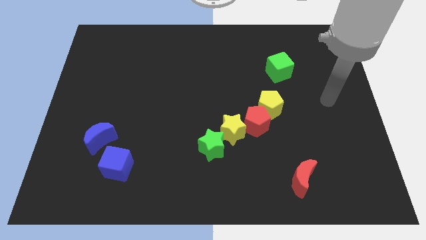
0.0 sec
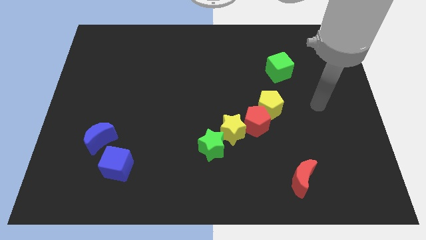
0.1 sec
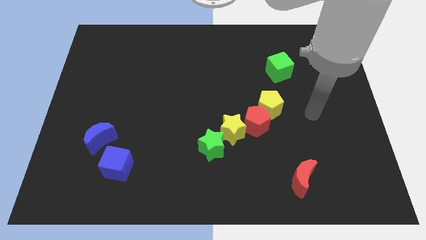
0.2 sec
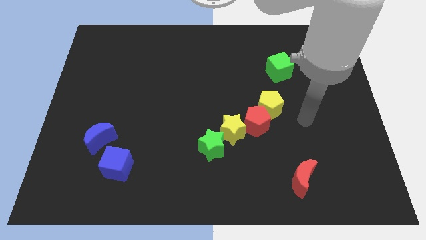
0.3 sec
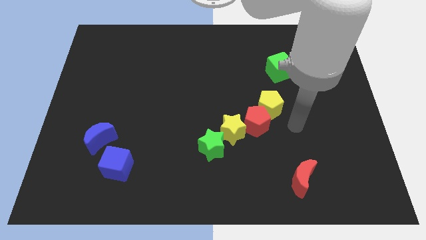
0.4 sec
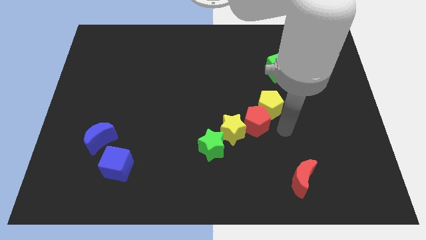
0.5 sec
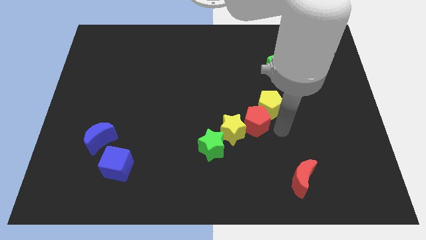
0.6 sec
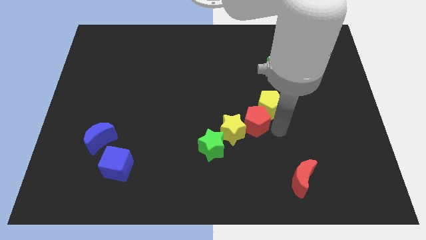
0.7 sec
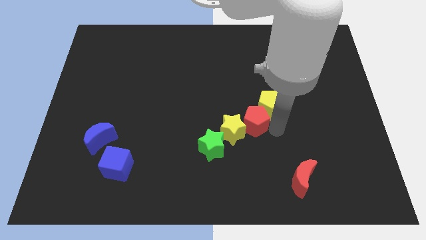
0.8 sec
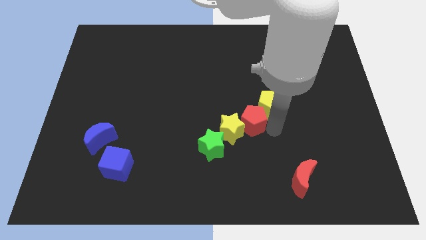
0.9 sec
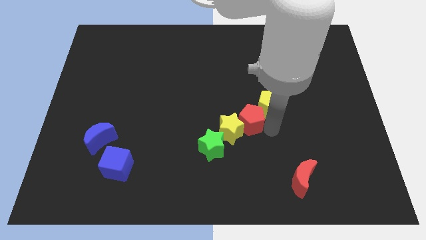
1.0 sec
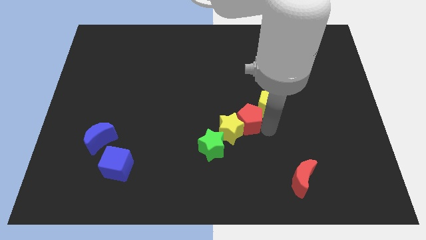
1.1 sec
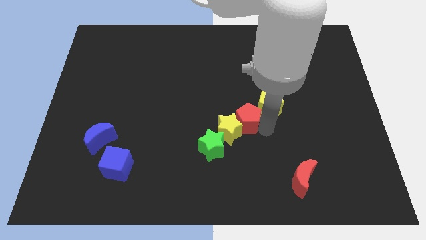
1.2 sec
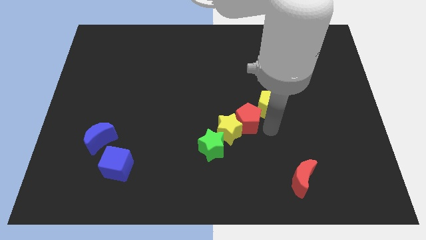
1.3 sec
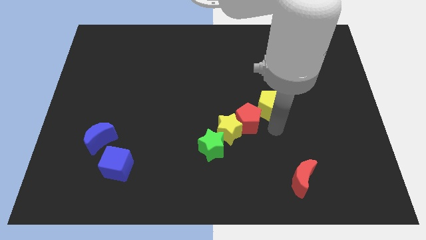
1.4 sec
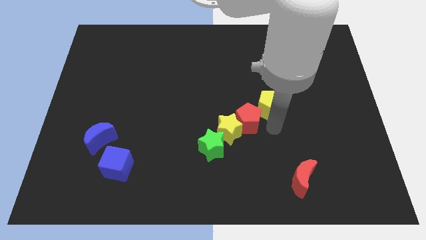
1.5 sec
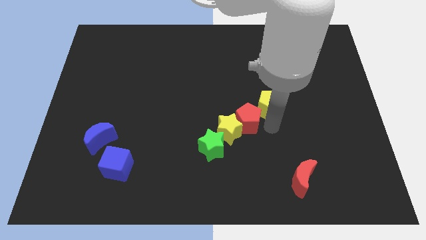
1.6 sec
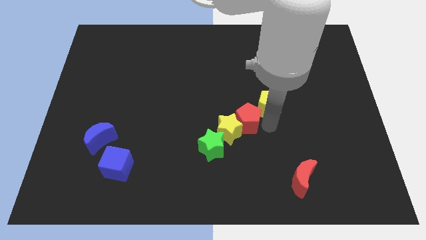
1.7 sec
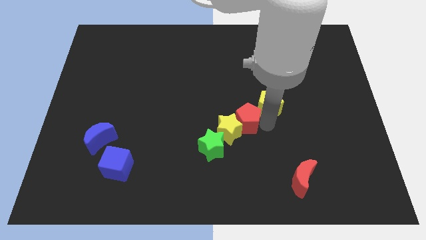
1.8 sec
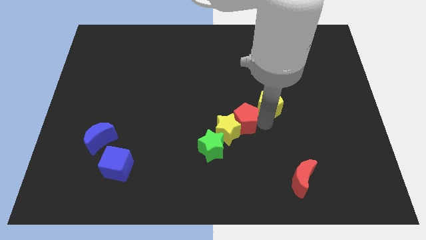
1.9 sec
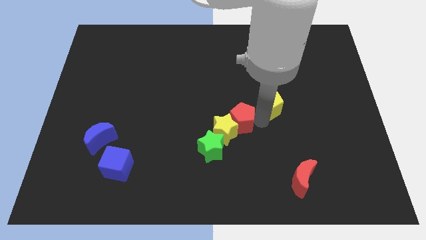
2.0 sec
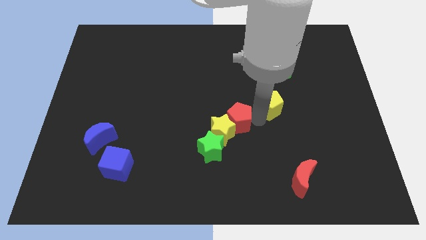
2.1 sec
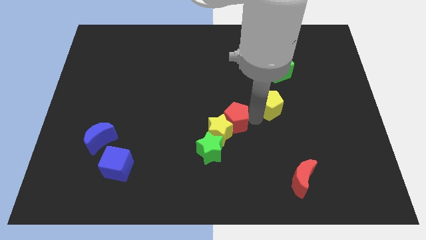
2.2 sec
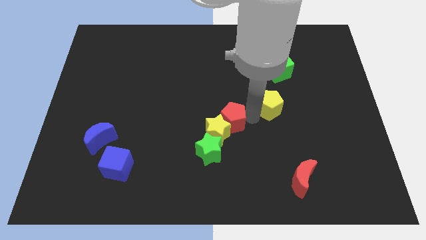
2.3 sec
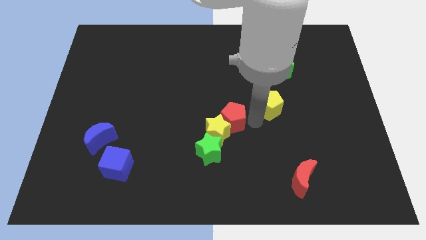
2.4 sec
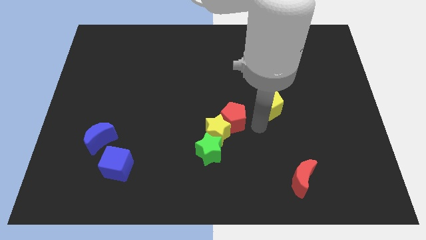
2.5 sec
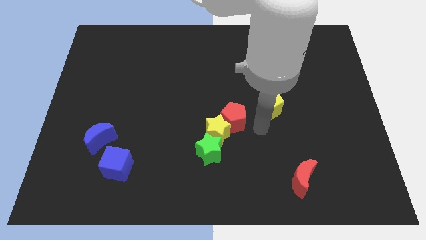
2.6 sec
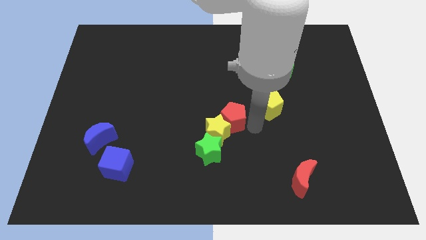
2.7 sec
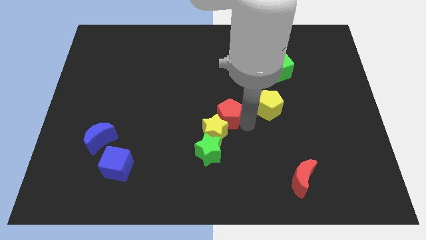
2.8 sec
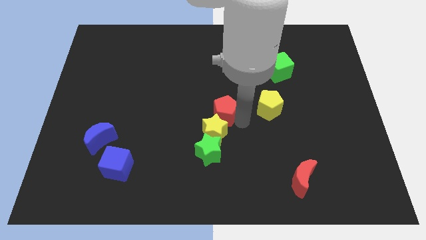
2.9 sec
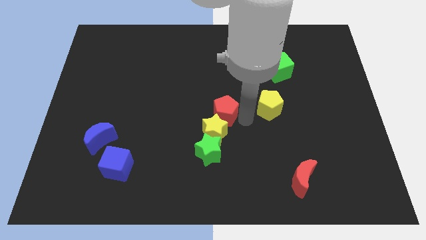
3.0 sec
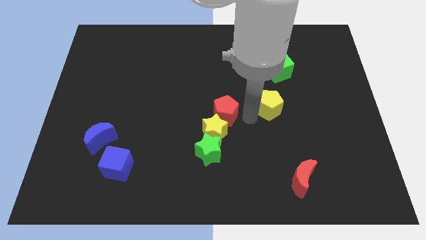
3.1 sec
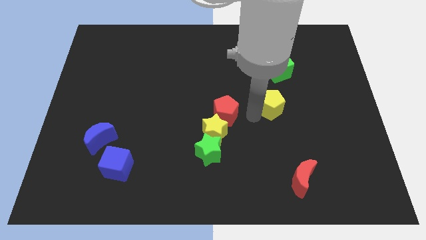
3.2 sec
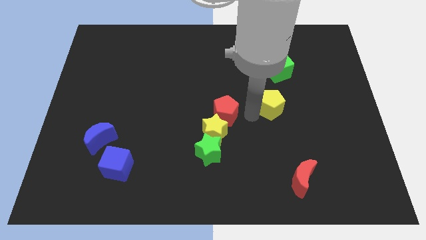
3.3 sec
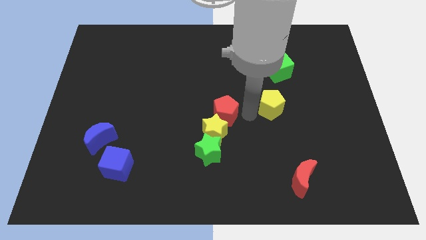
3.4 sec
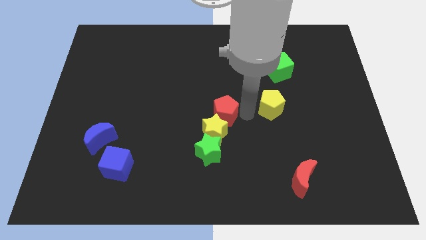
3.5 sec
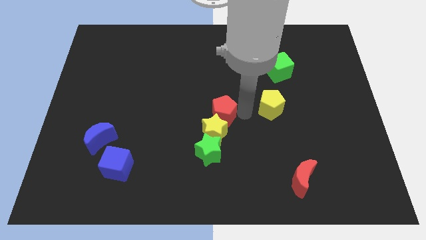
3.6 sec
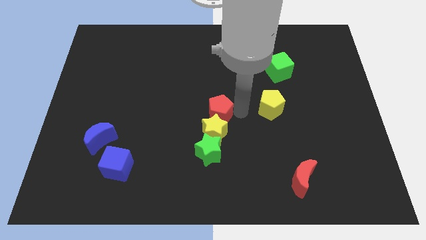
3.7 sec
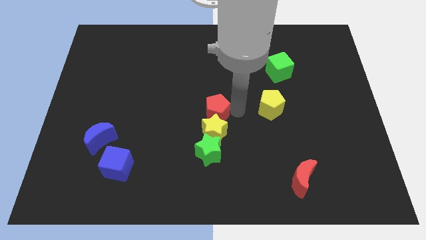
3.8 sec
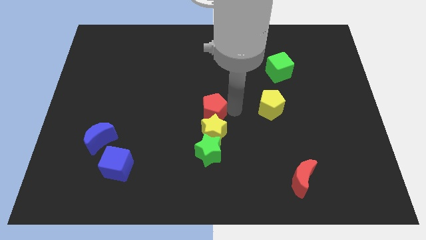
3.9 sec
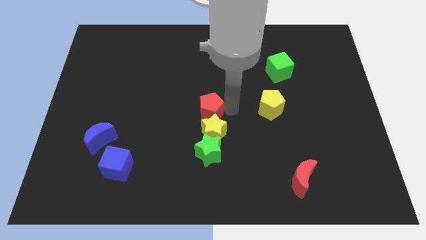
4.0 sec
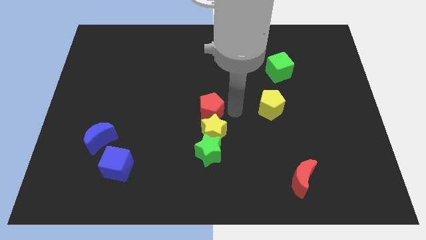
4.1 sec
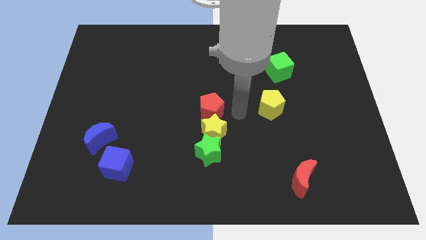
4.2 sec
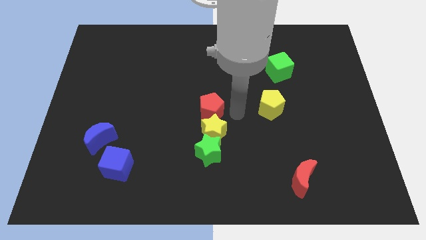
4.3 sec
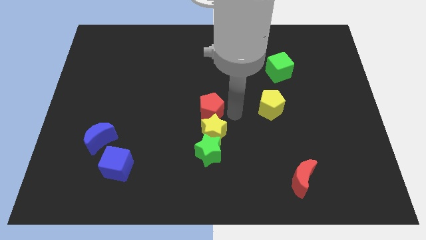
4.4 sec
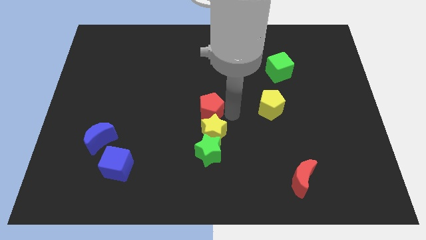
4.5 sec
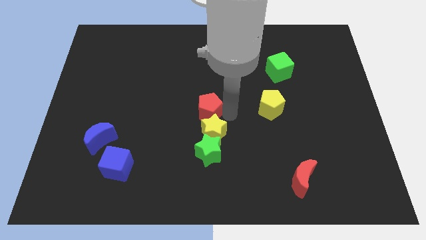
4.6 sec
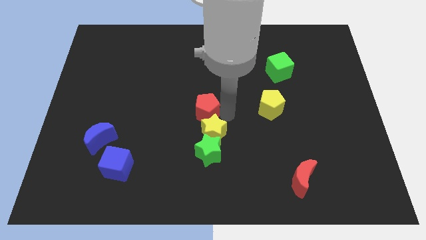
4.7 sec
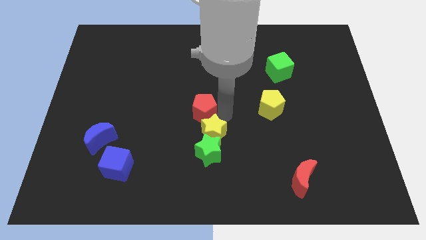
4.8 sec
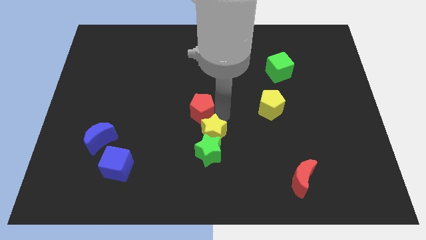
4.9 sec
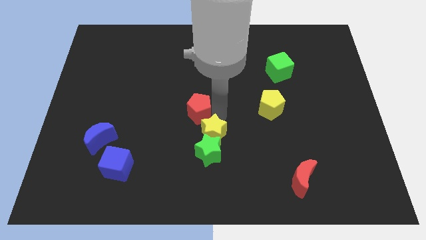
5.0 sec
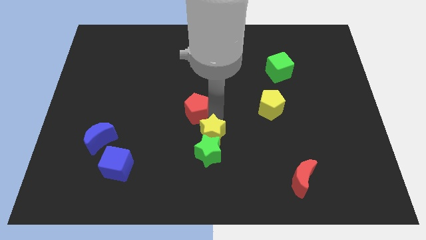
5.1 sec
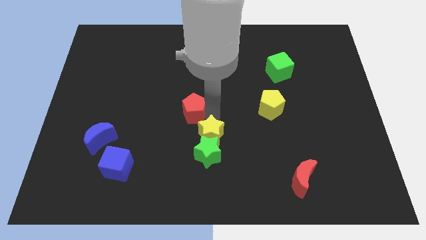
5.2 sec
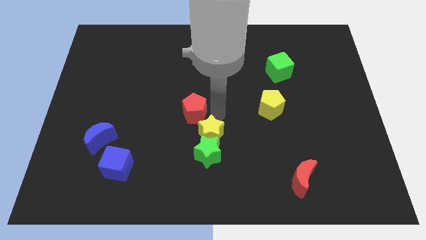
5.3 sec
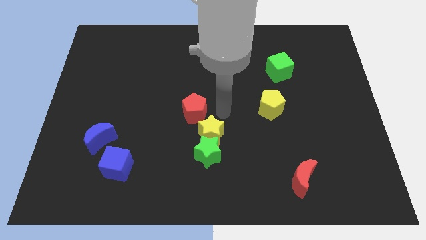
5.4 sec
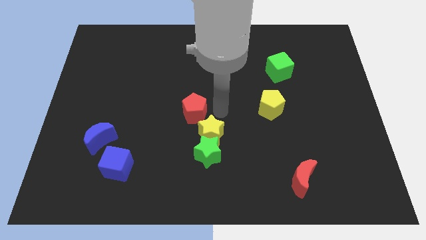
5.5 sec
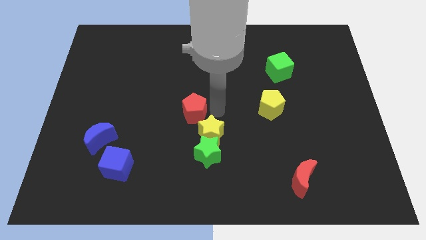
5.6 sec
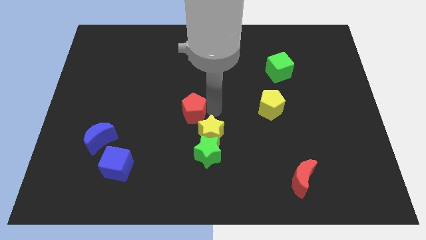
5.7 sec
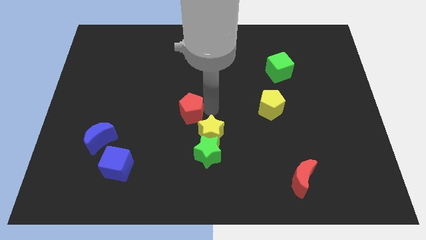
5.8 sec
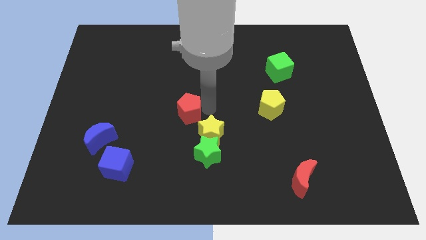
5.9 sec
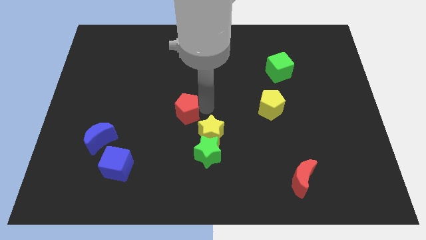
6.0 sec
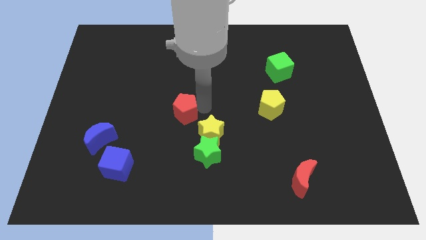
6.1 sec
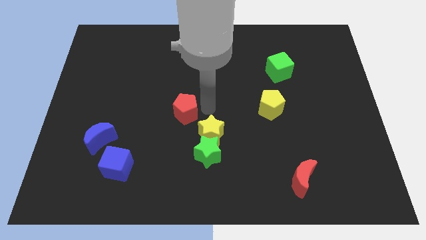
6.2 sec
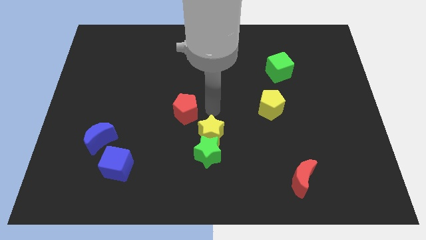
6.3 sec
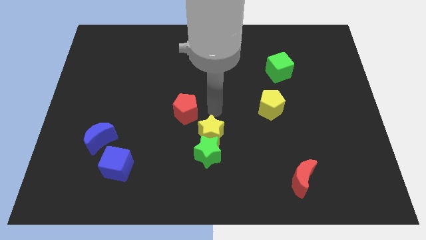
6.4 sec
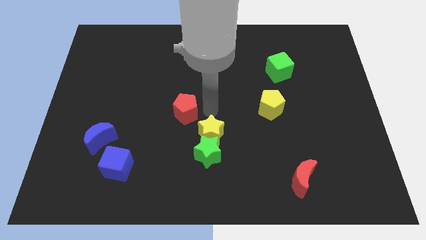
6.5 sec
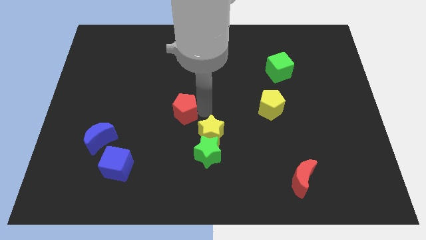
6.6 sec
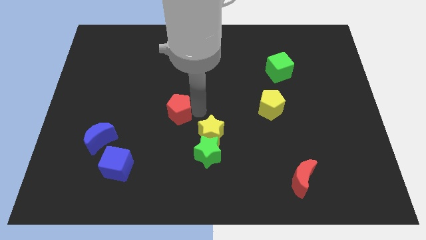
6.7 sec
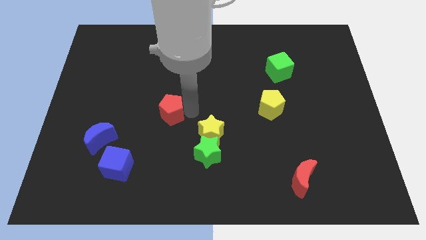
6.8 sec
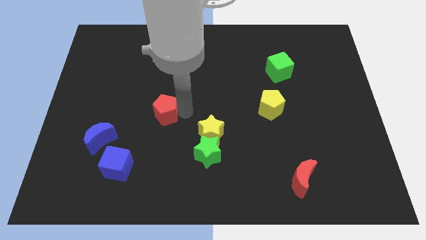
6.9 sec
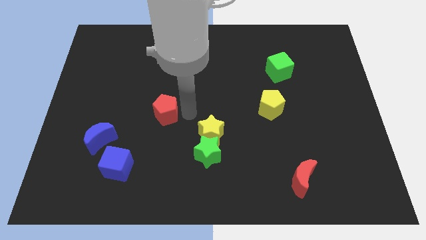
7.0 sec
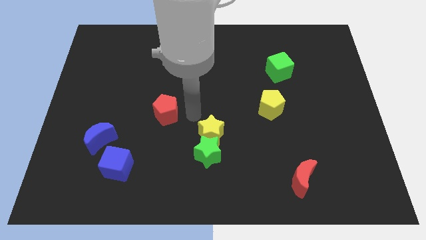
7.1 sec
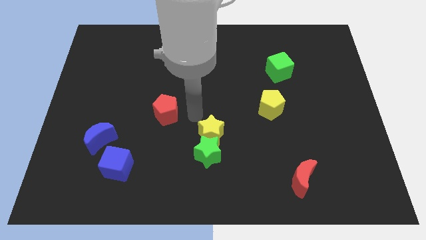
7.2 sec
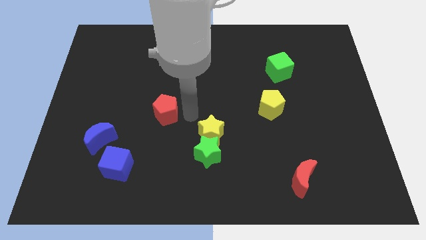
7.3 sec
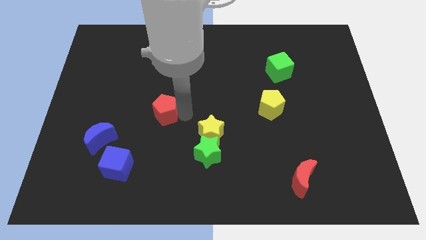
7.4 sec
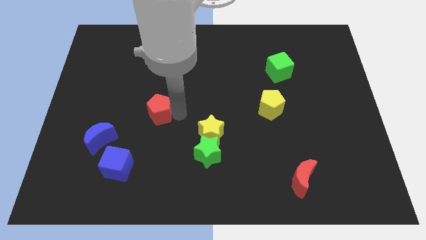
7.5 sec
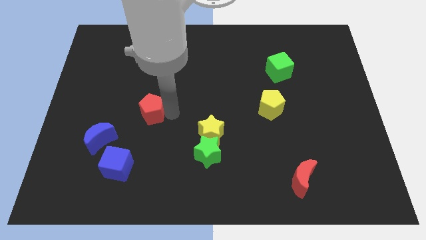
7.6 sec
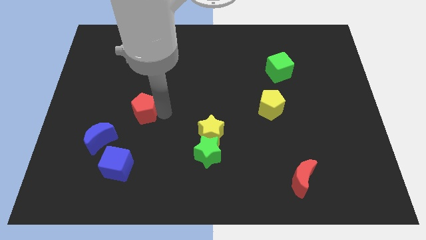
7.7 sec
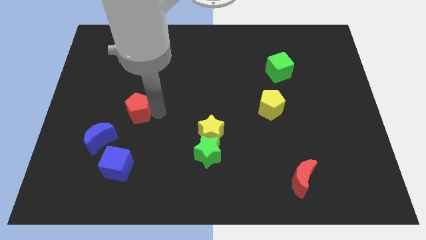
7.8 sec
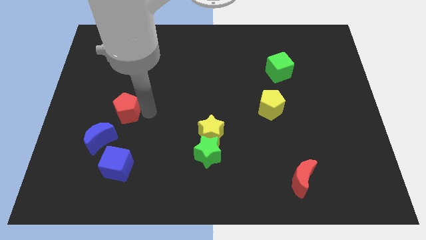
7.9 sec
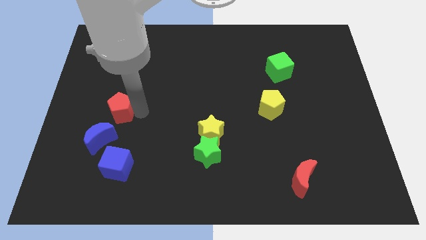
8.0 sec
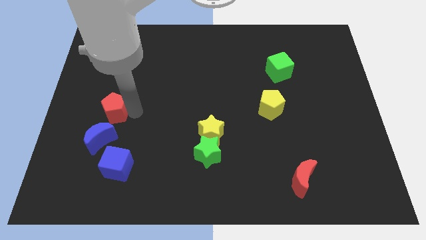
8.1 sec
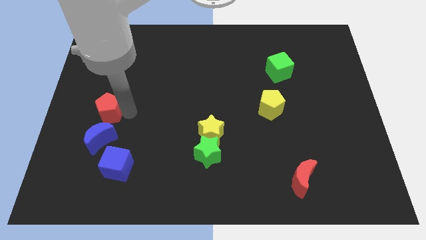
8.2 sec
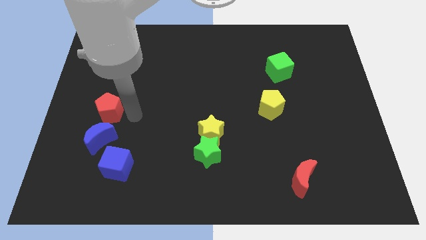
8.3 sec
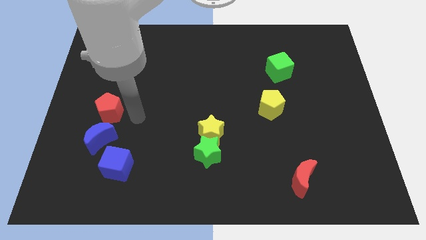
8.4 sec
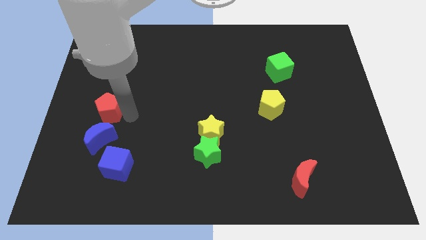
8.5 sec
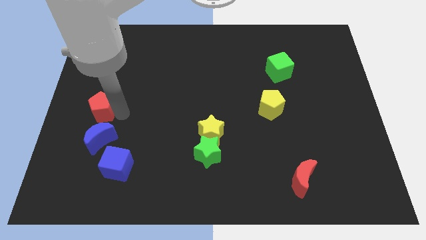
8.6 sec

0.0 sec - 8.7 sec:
put the red pentagon to the center left
